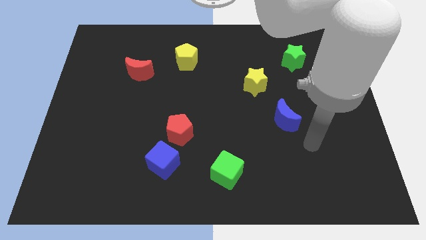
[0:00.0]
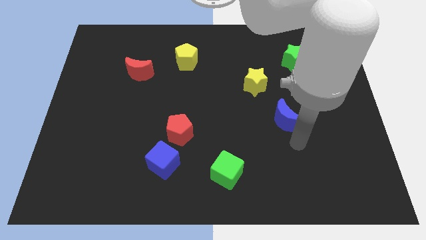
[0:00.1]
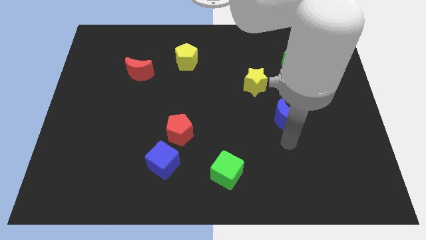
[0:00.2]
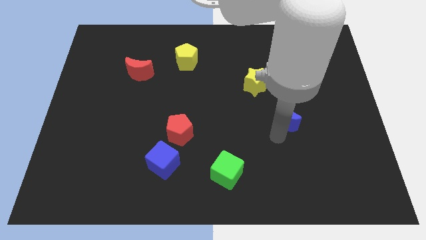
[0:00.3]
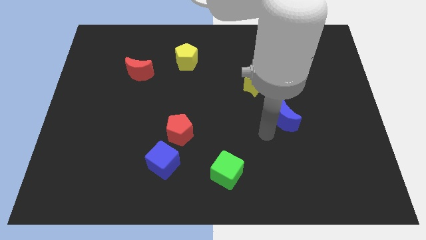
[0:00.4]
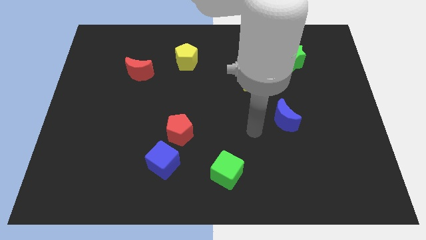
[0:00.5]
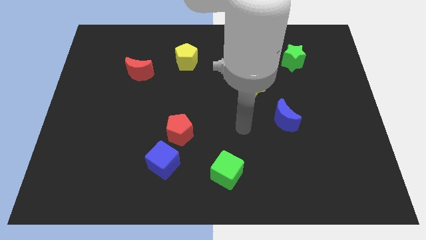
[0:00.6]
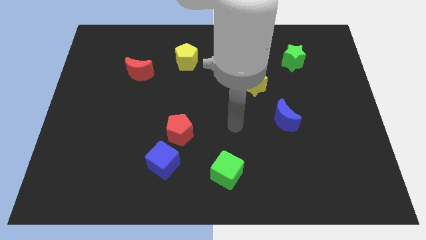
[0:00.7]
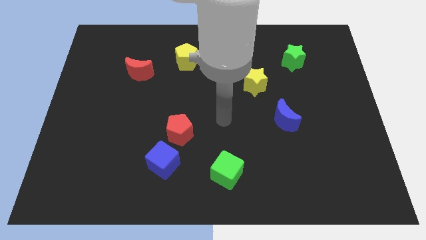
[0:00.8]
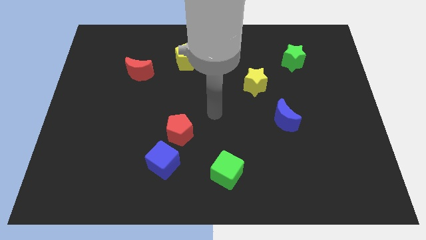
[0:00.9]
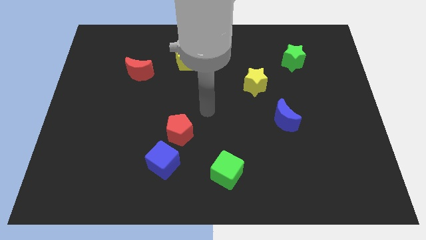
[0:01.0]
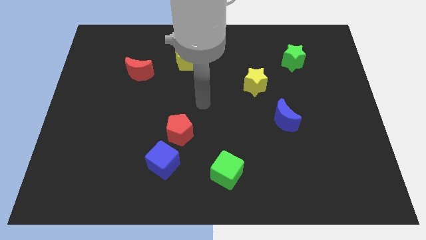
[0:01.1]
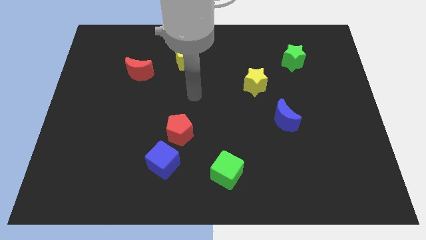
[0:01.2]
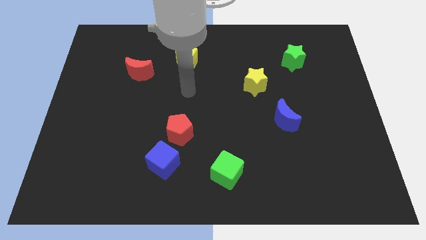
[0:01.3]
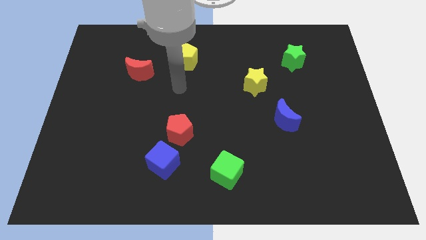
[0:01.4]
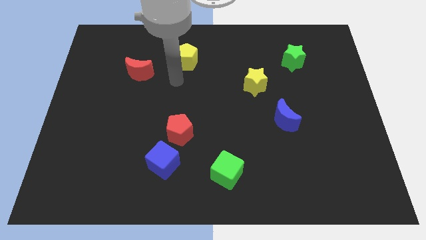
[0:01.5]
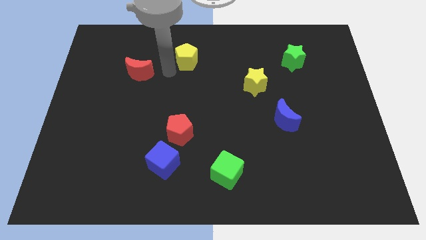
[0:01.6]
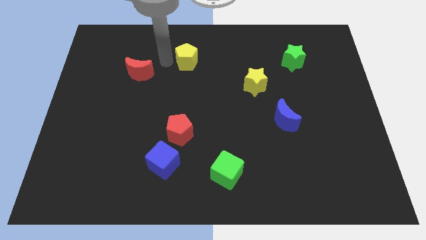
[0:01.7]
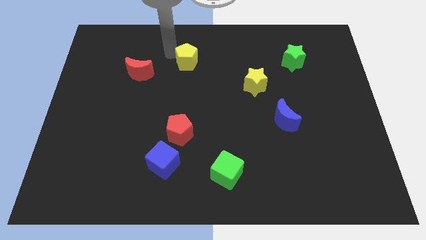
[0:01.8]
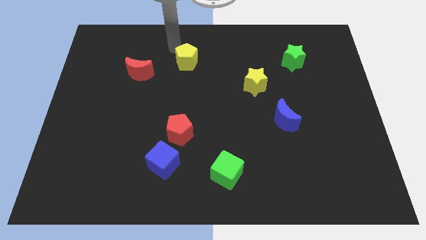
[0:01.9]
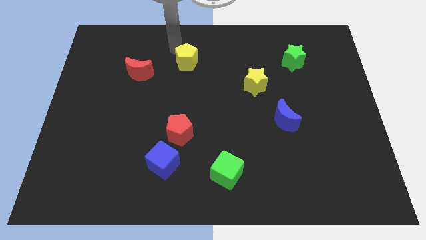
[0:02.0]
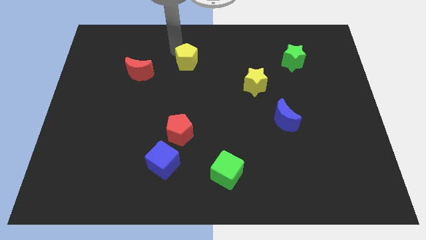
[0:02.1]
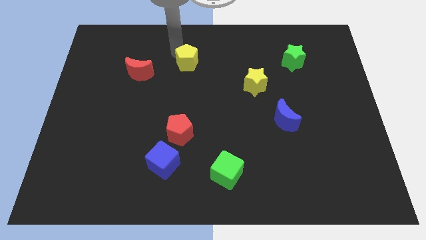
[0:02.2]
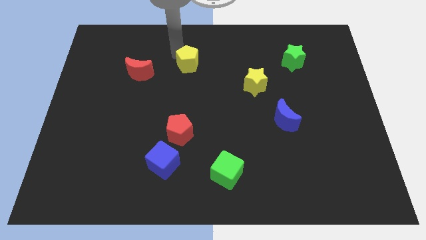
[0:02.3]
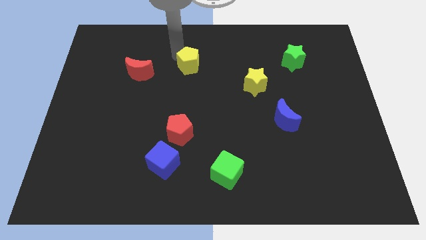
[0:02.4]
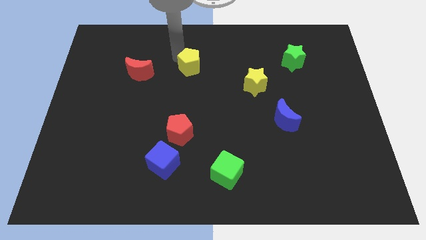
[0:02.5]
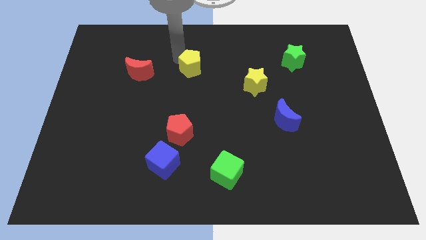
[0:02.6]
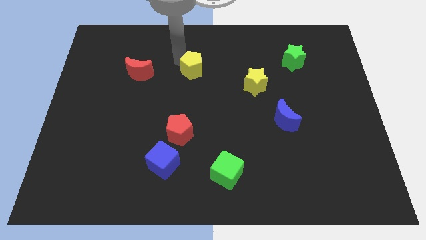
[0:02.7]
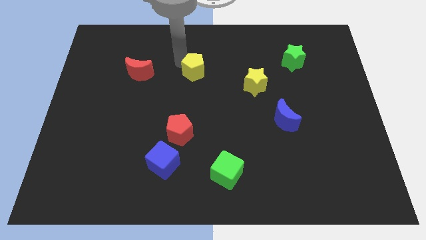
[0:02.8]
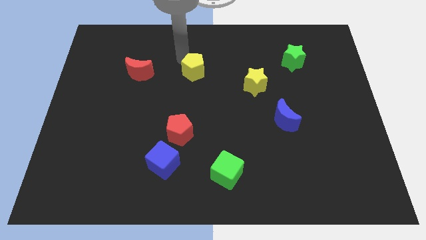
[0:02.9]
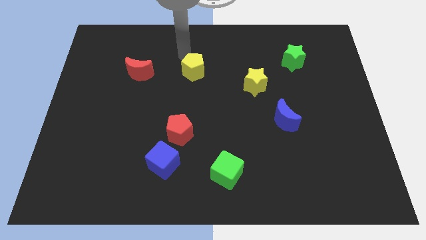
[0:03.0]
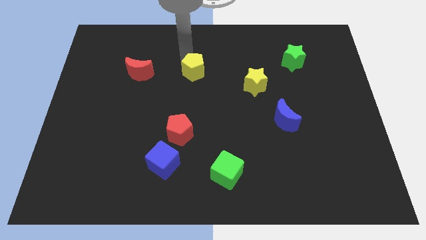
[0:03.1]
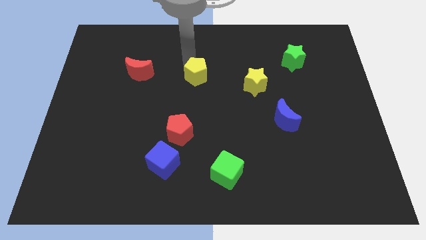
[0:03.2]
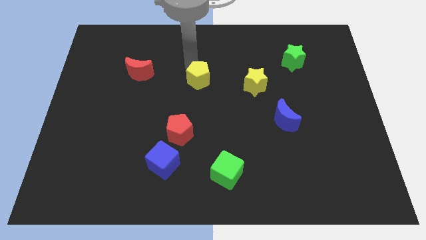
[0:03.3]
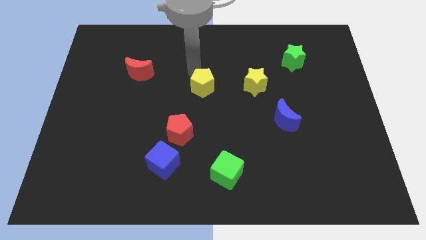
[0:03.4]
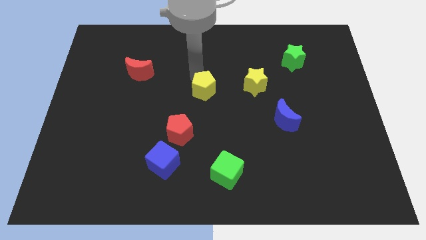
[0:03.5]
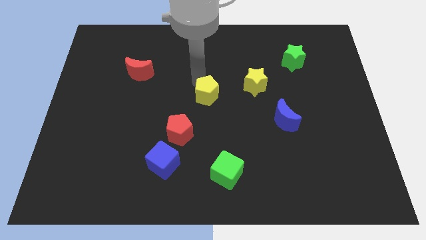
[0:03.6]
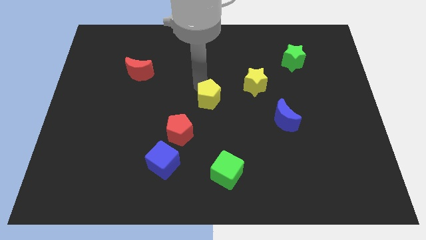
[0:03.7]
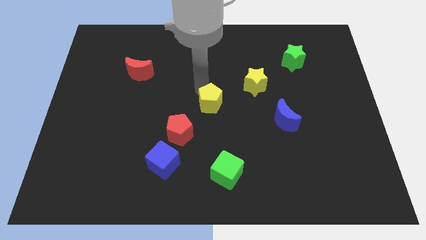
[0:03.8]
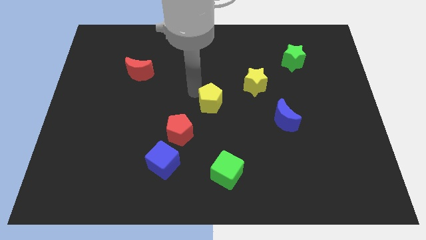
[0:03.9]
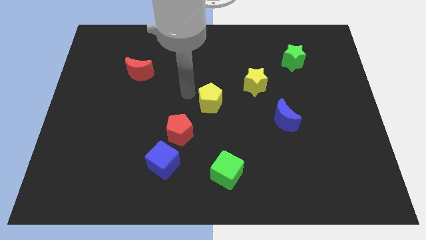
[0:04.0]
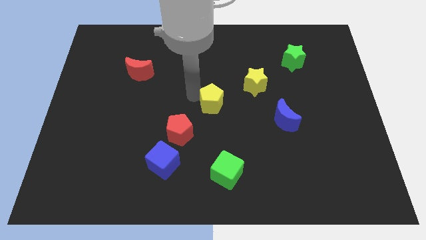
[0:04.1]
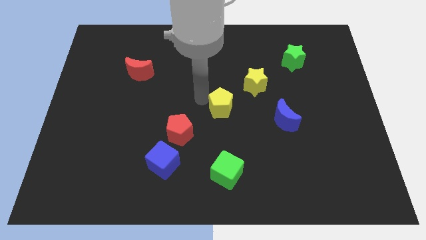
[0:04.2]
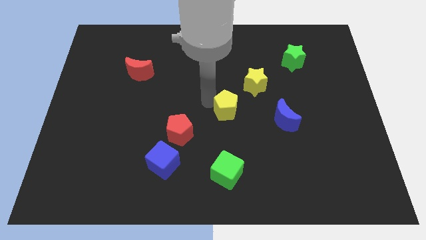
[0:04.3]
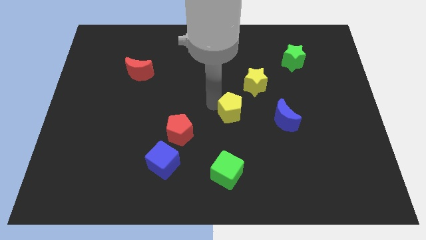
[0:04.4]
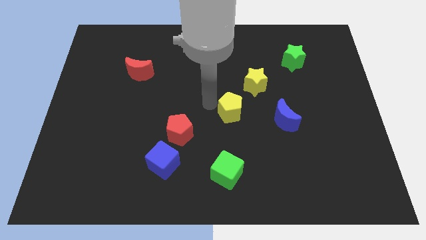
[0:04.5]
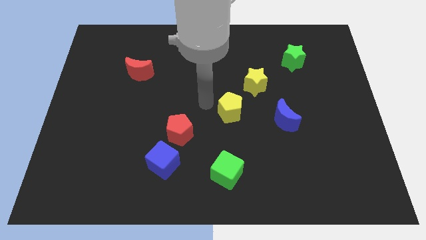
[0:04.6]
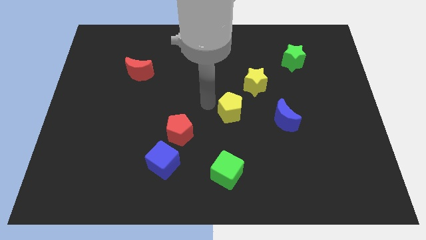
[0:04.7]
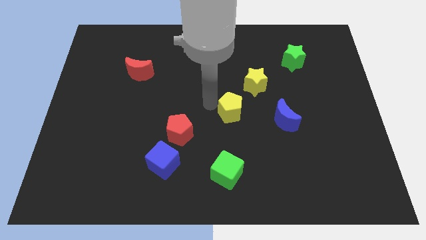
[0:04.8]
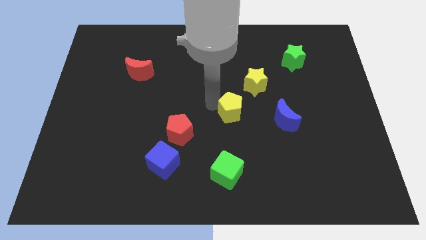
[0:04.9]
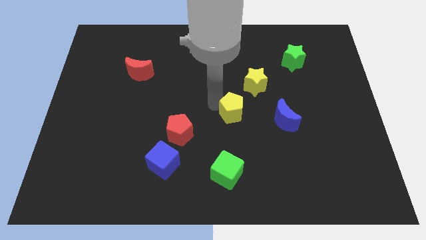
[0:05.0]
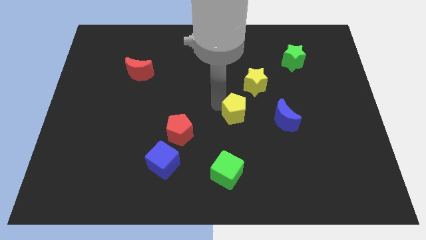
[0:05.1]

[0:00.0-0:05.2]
move the yellow pentagon downwards and then to the right

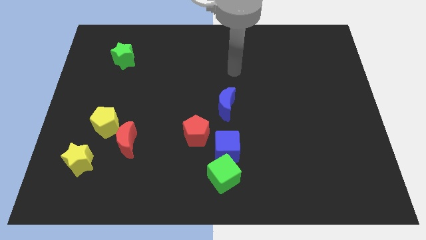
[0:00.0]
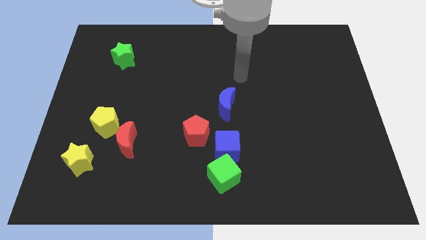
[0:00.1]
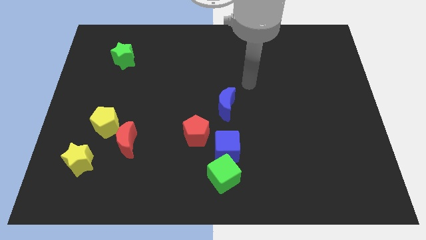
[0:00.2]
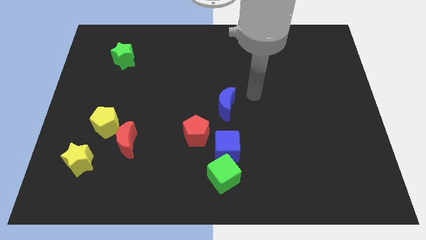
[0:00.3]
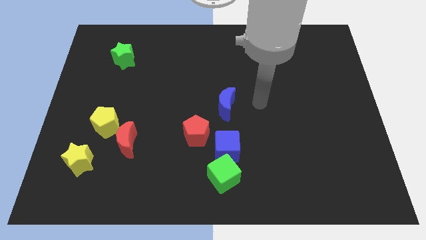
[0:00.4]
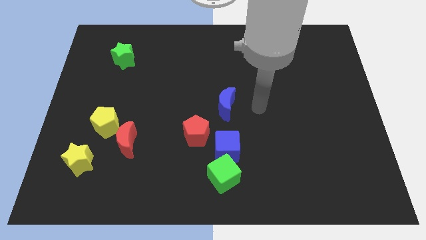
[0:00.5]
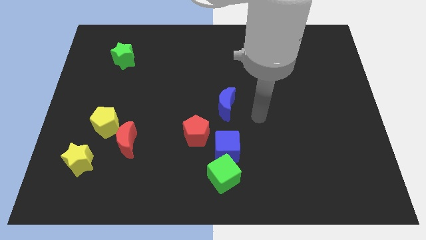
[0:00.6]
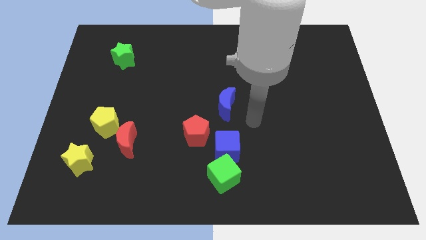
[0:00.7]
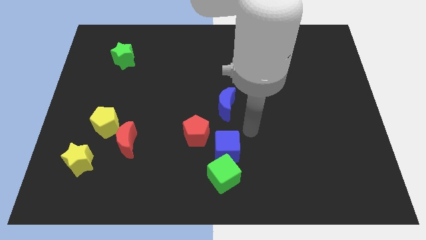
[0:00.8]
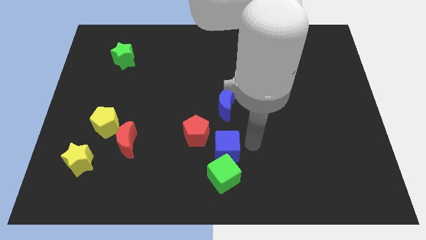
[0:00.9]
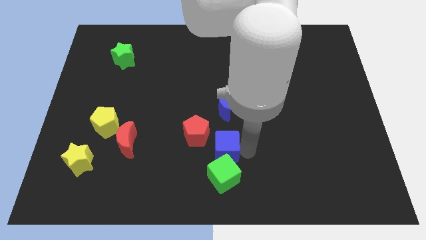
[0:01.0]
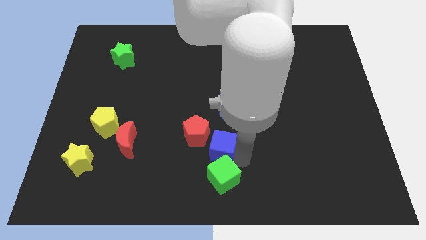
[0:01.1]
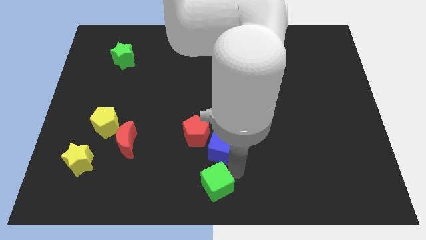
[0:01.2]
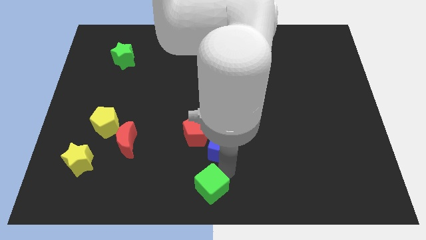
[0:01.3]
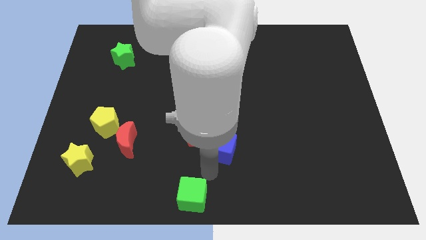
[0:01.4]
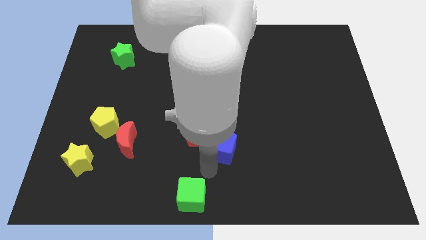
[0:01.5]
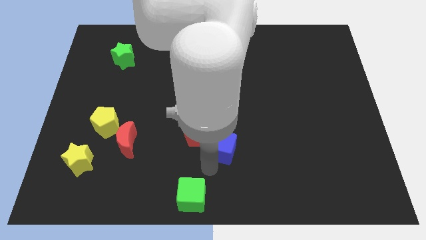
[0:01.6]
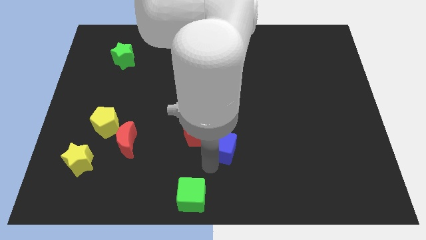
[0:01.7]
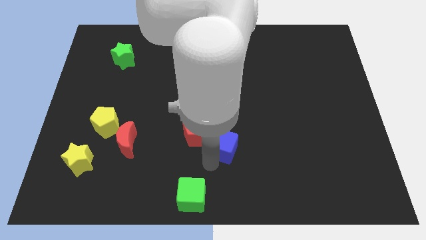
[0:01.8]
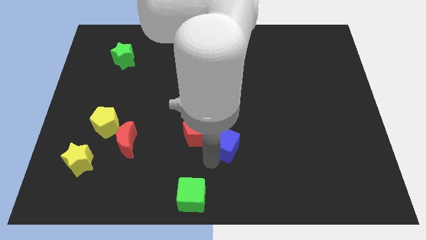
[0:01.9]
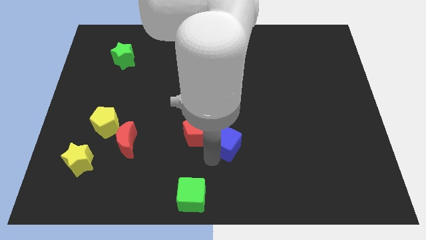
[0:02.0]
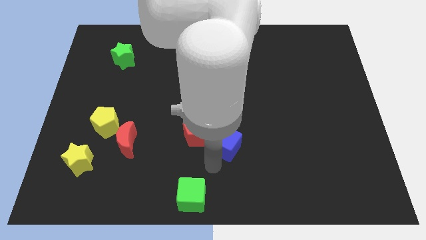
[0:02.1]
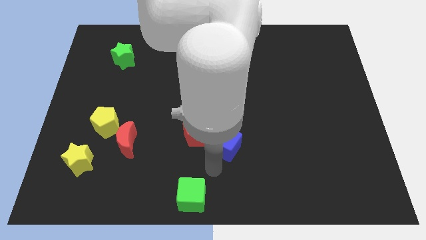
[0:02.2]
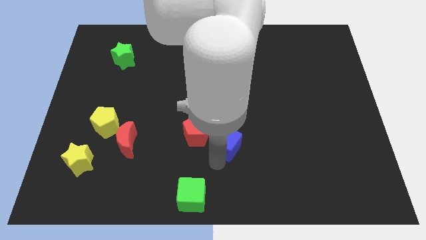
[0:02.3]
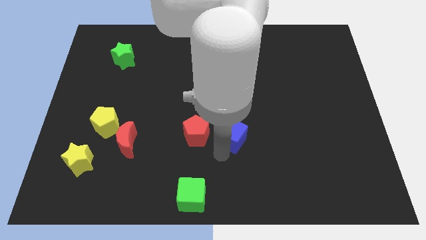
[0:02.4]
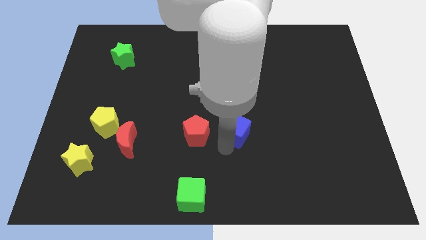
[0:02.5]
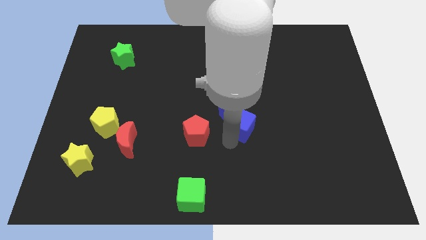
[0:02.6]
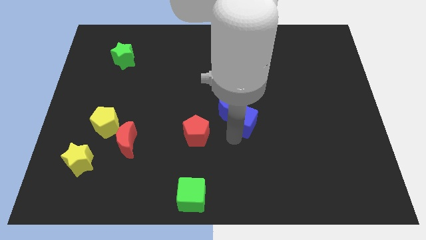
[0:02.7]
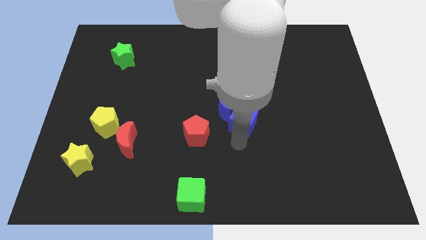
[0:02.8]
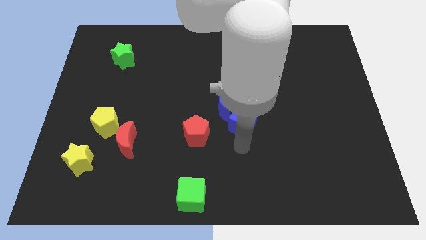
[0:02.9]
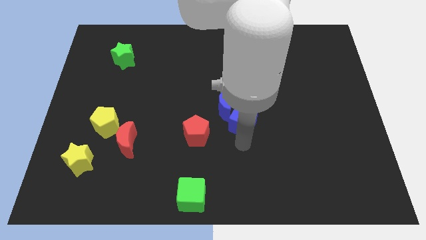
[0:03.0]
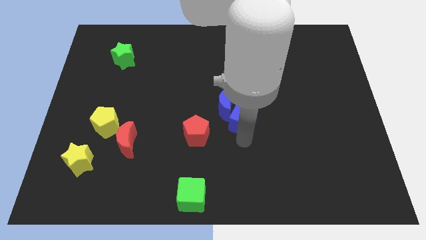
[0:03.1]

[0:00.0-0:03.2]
slide the blue cube upwards a little
